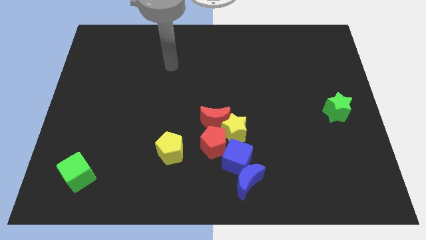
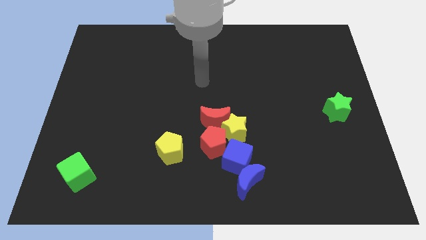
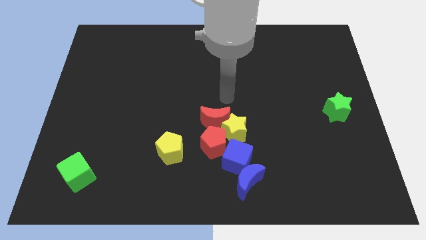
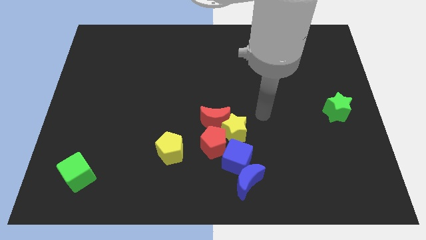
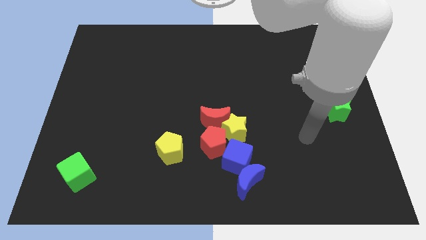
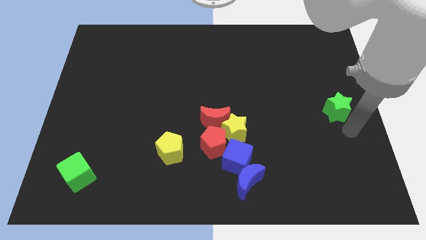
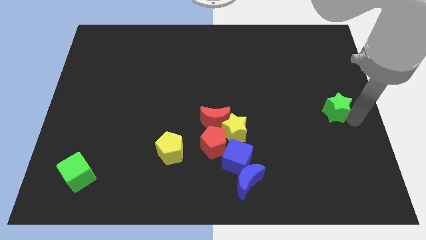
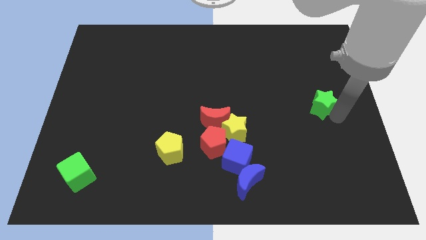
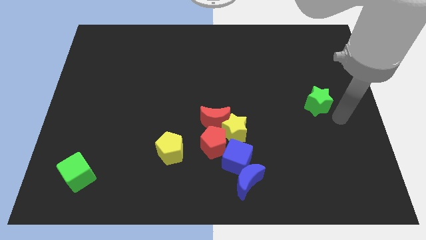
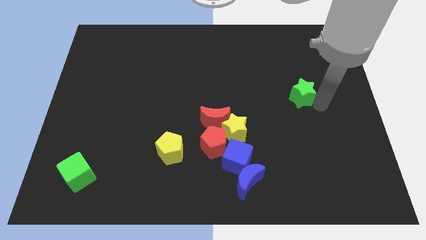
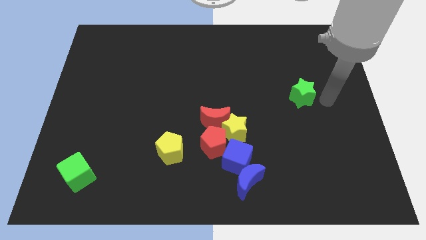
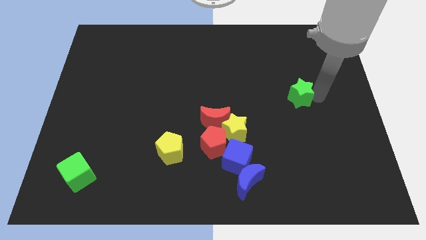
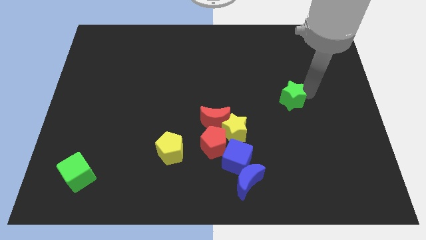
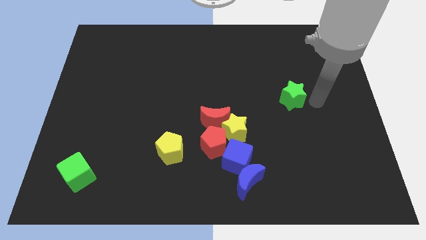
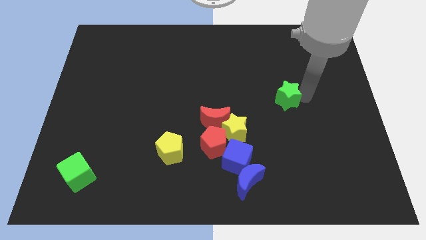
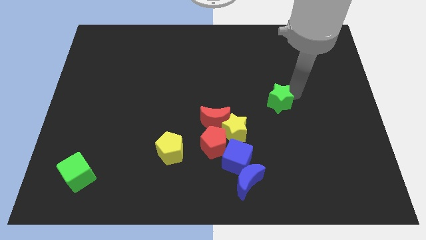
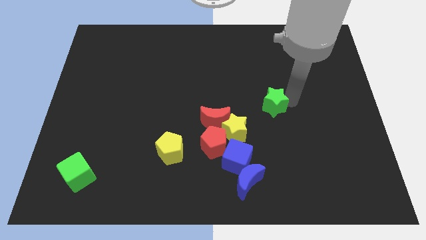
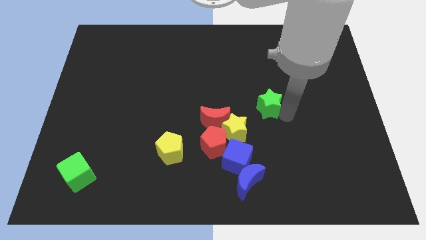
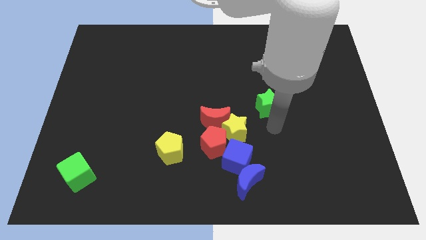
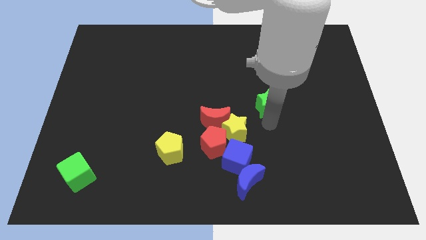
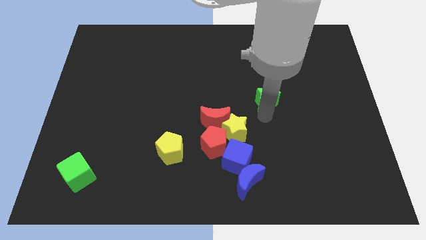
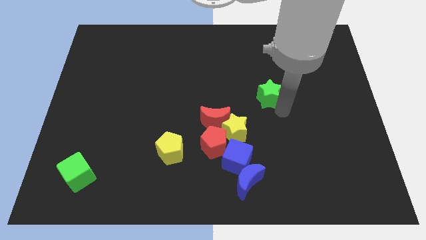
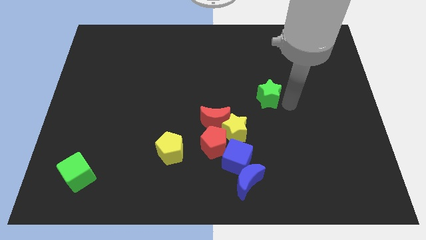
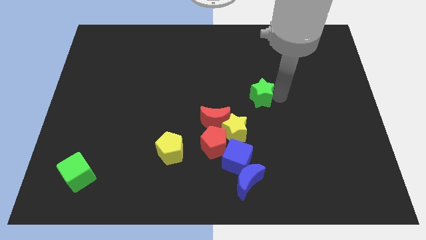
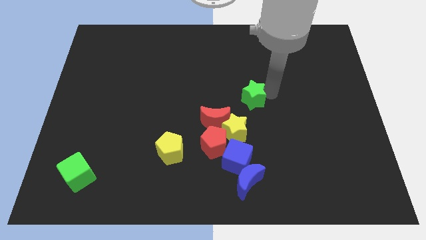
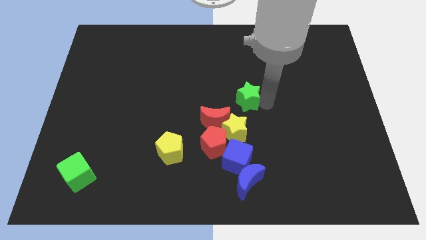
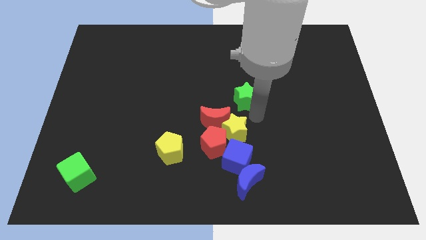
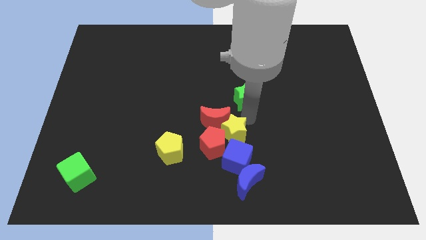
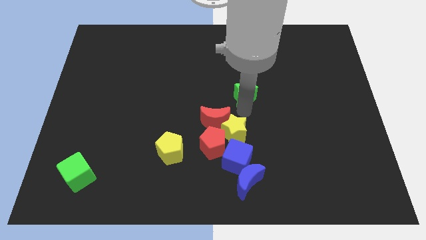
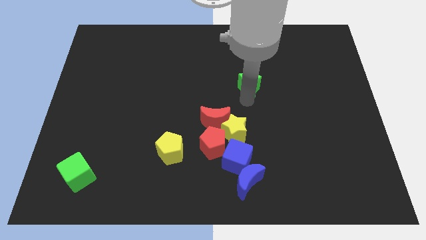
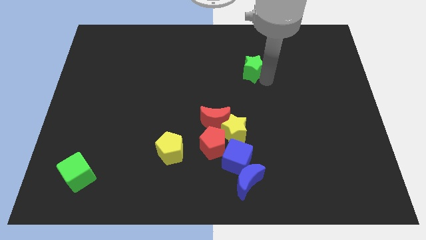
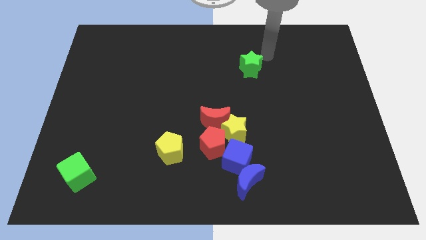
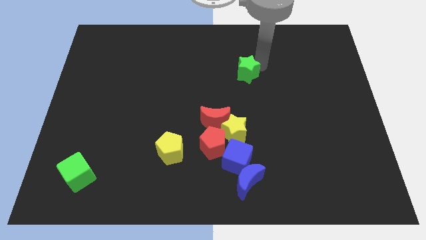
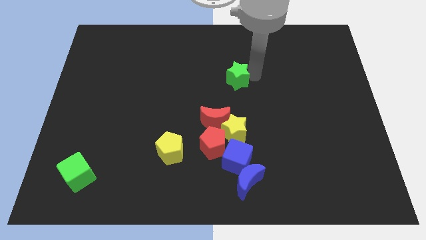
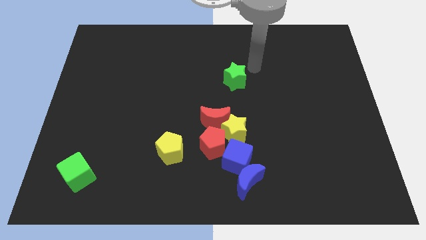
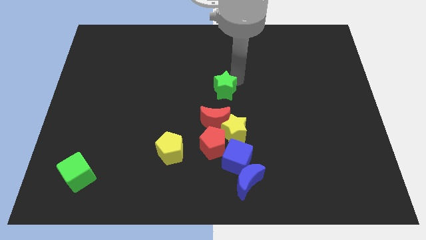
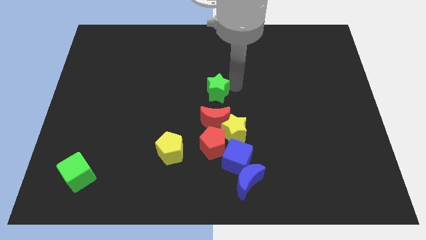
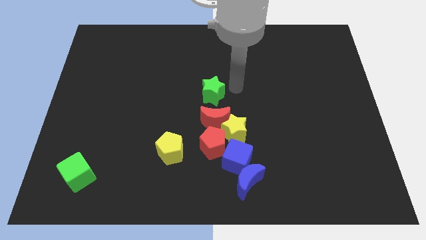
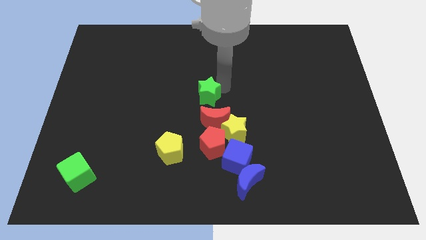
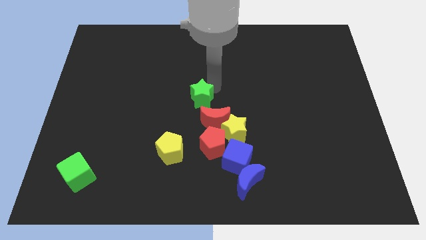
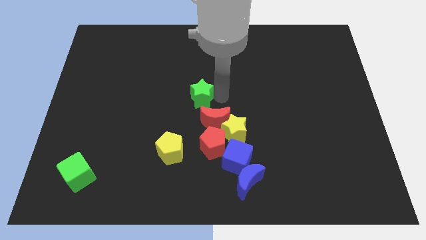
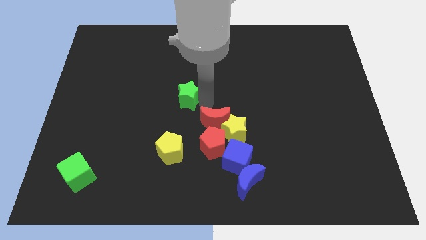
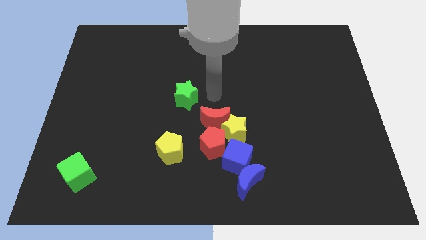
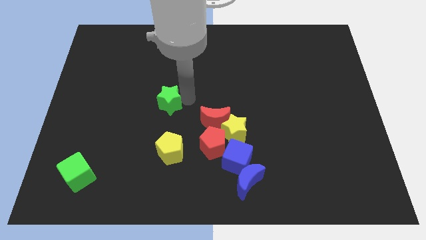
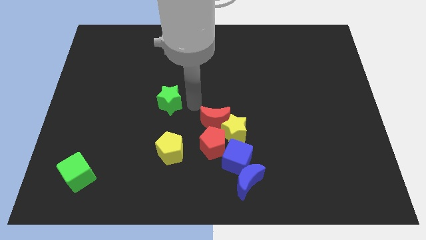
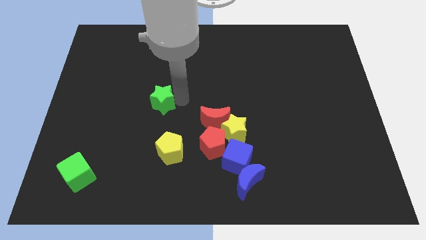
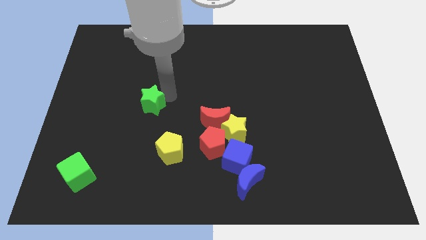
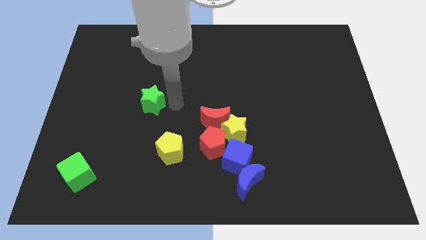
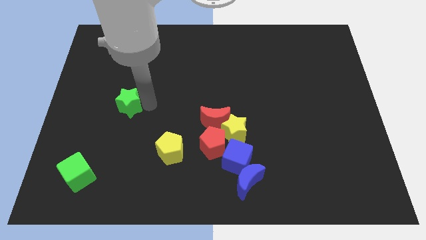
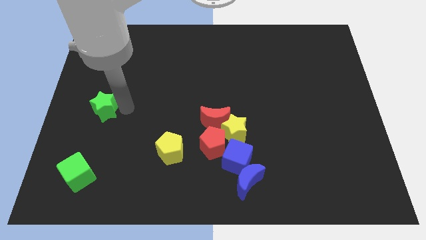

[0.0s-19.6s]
move the green star to the left side
